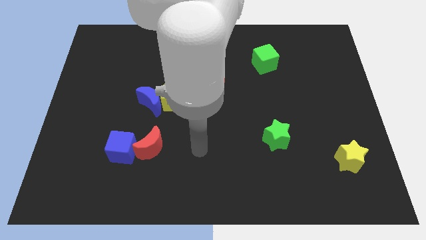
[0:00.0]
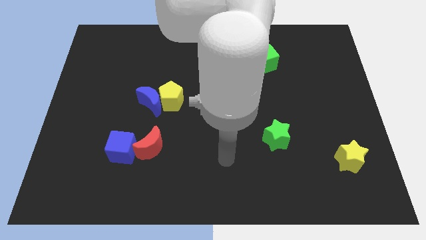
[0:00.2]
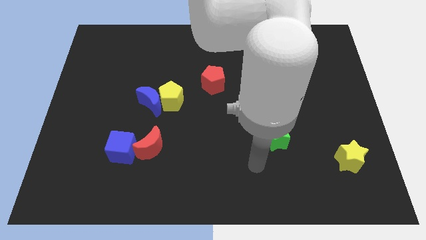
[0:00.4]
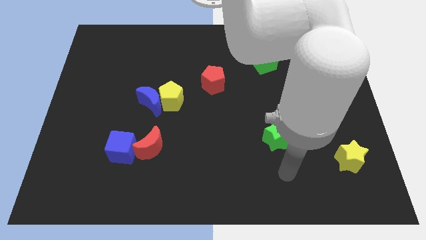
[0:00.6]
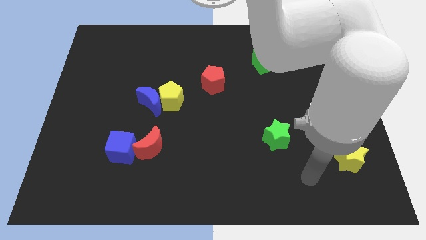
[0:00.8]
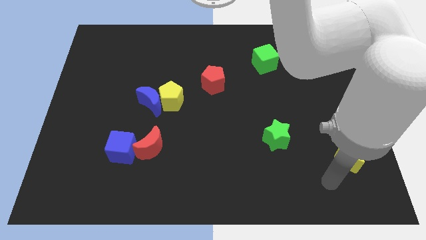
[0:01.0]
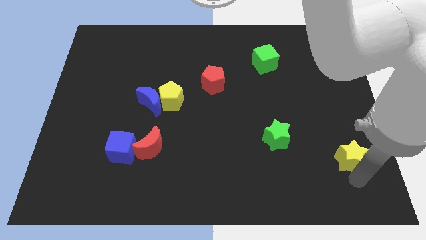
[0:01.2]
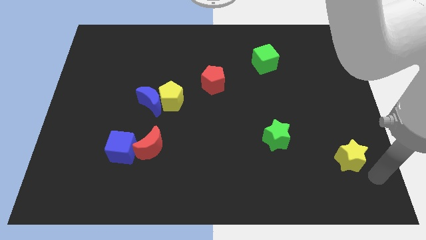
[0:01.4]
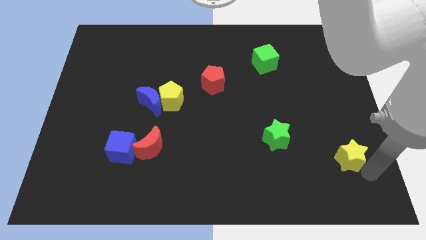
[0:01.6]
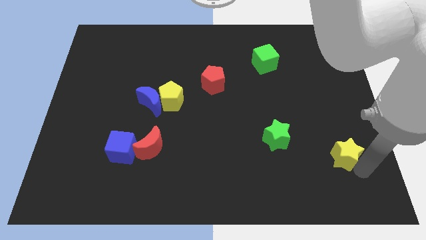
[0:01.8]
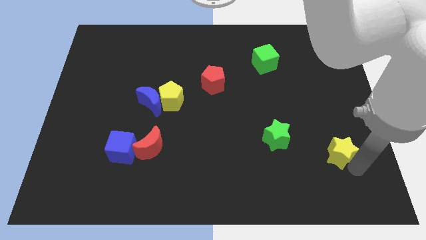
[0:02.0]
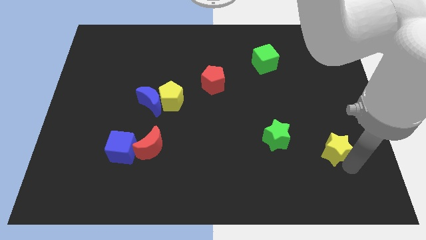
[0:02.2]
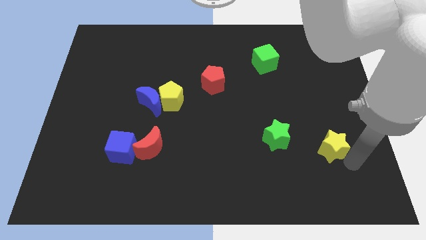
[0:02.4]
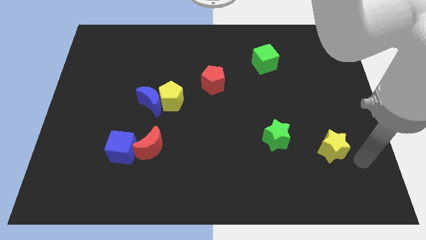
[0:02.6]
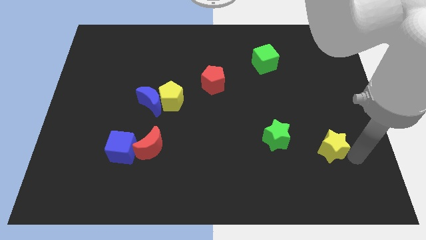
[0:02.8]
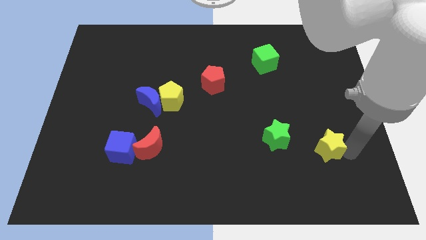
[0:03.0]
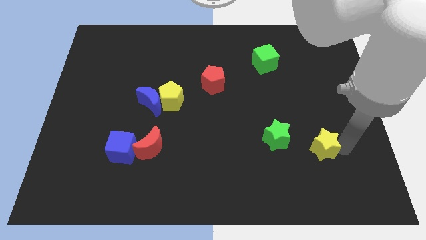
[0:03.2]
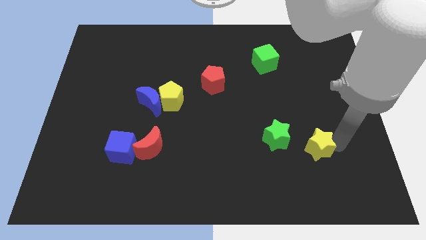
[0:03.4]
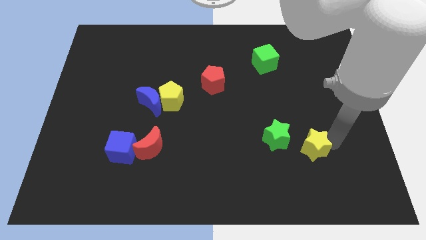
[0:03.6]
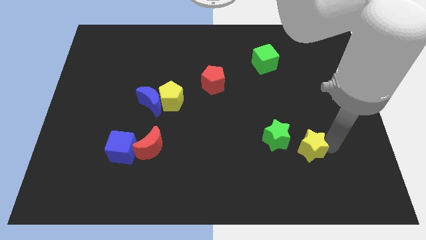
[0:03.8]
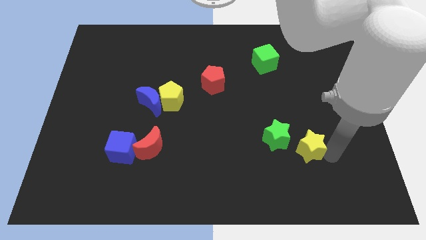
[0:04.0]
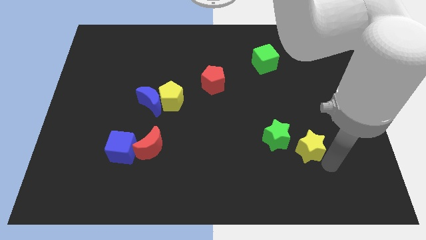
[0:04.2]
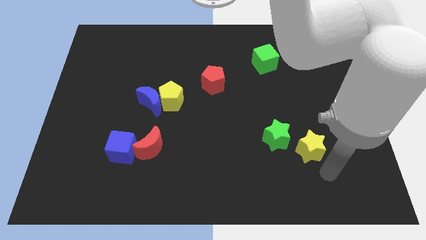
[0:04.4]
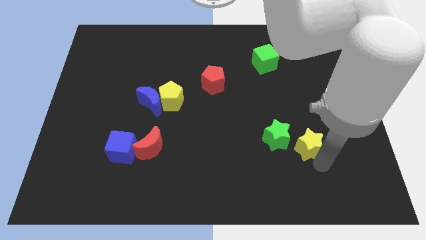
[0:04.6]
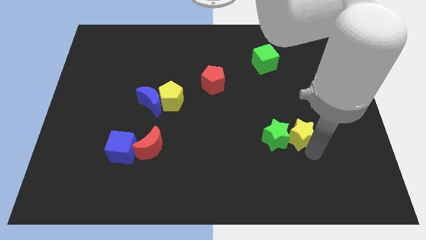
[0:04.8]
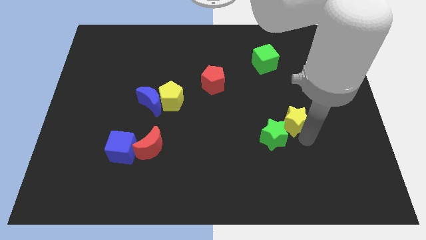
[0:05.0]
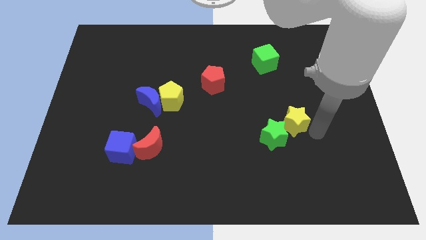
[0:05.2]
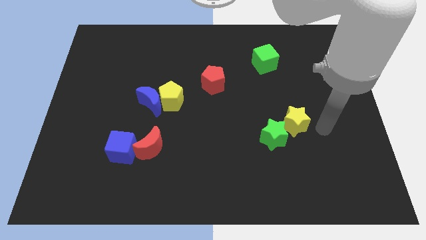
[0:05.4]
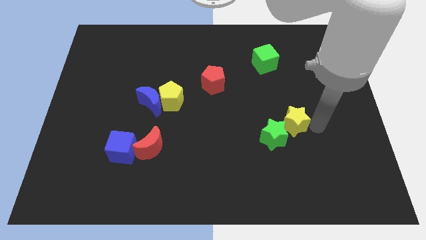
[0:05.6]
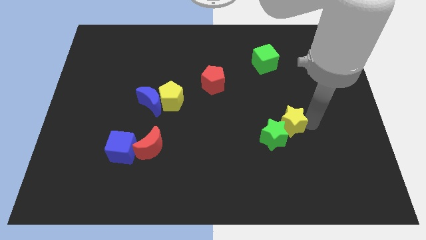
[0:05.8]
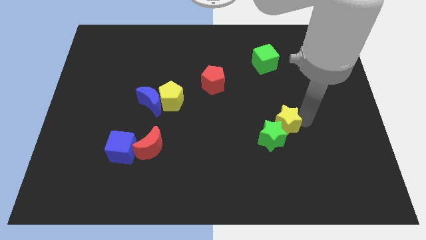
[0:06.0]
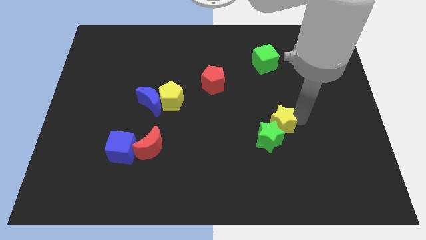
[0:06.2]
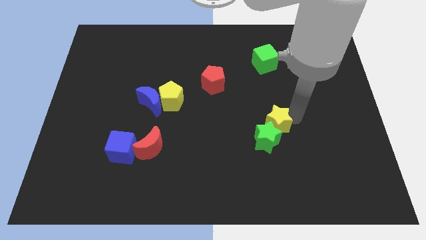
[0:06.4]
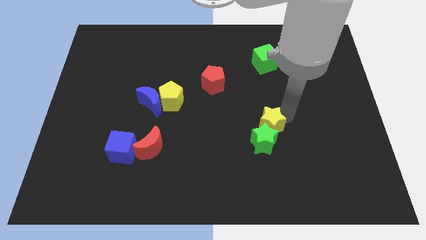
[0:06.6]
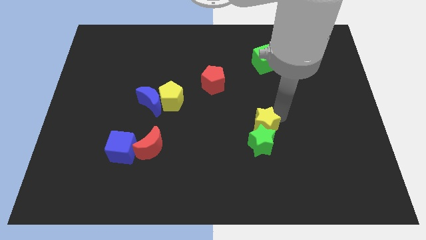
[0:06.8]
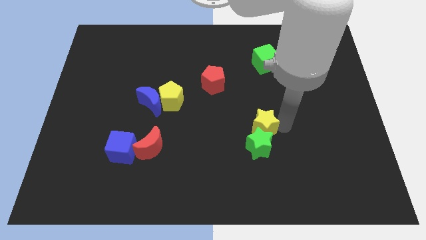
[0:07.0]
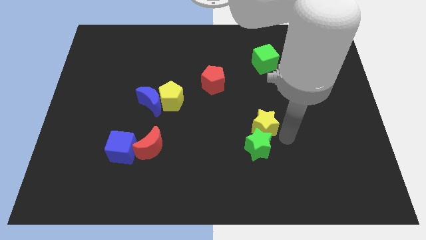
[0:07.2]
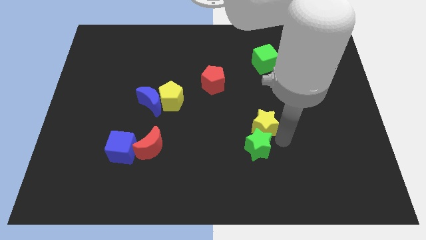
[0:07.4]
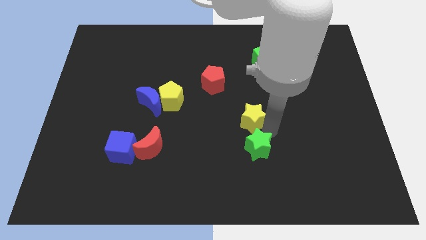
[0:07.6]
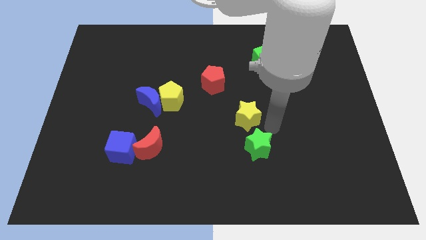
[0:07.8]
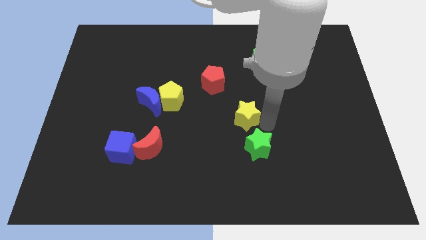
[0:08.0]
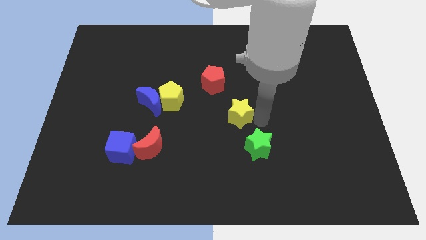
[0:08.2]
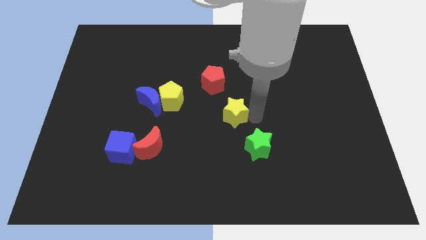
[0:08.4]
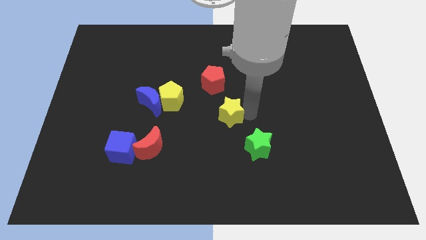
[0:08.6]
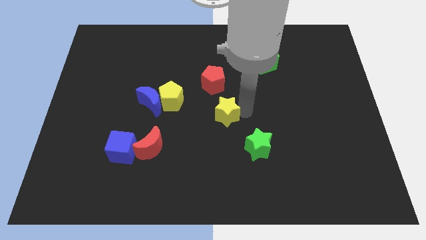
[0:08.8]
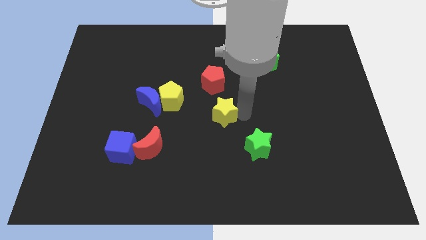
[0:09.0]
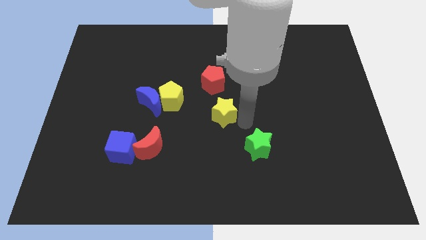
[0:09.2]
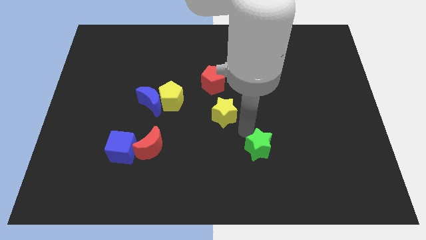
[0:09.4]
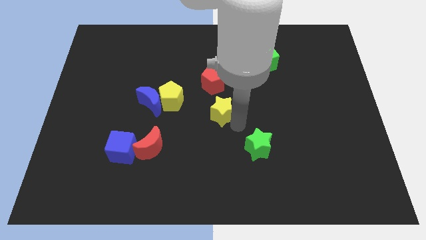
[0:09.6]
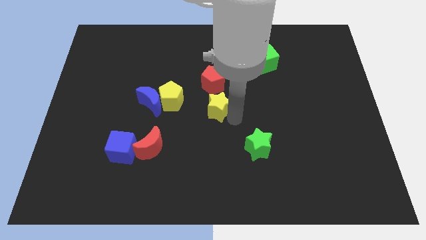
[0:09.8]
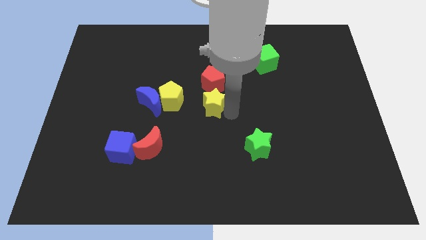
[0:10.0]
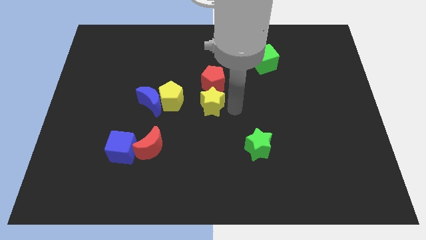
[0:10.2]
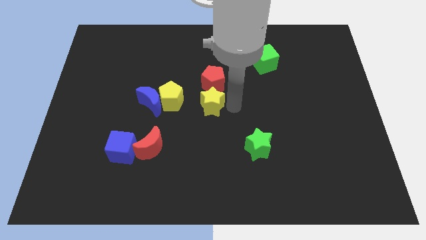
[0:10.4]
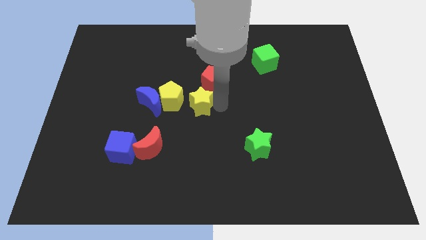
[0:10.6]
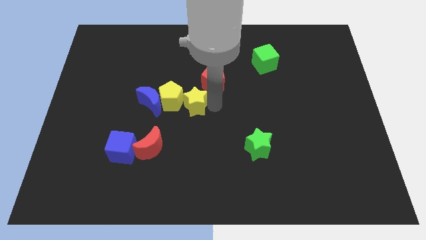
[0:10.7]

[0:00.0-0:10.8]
push the yellow star towards the yellow pentagon

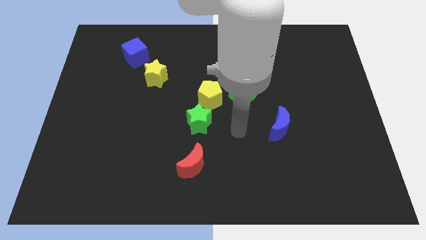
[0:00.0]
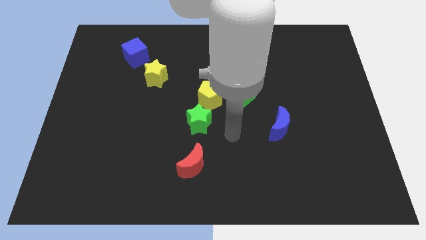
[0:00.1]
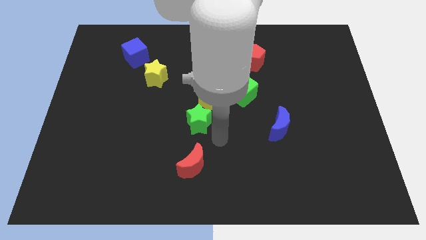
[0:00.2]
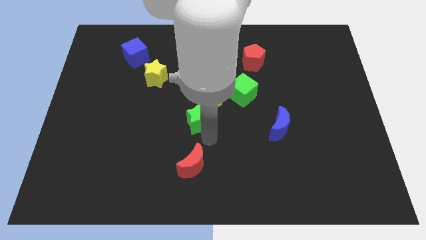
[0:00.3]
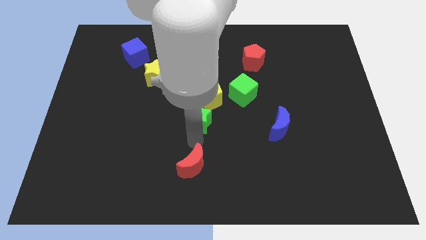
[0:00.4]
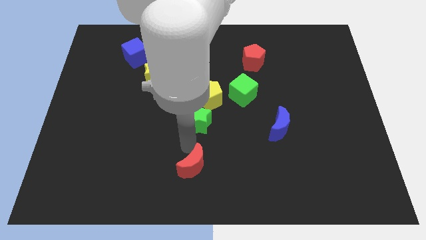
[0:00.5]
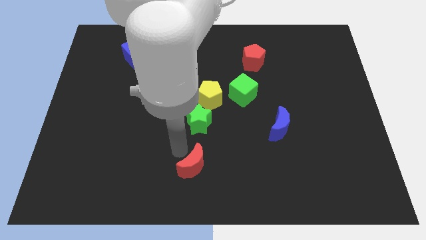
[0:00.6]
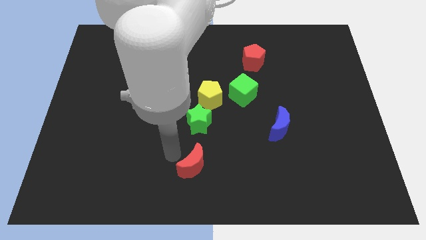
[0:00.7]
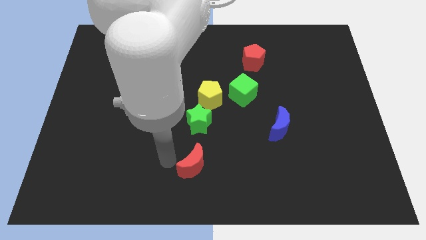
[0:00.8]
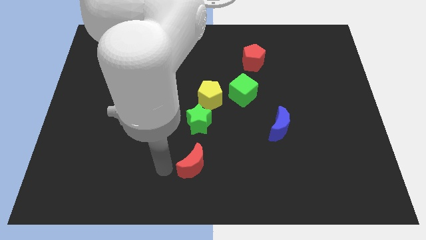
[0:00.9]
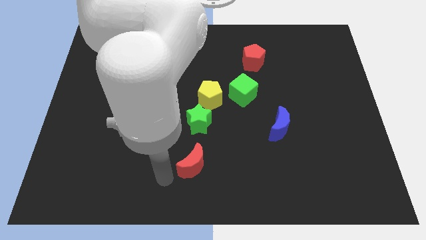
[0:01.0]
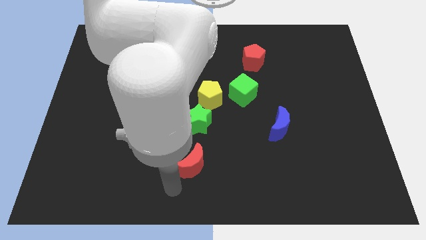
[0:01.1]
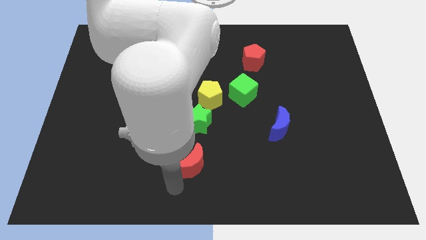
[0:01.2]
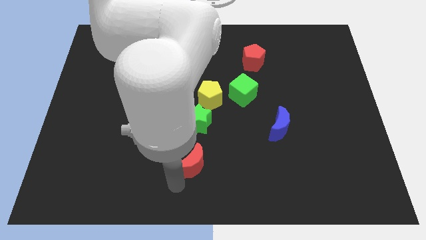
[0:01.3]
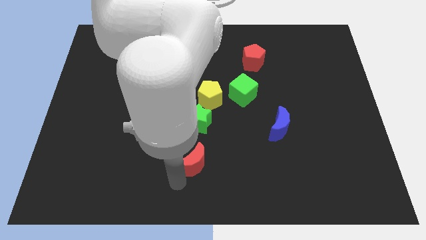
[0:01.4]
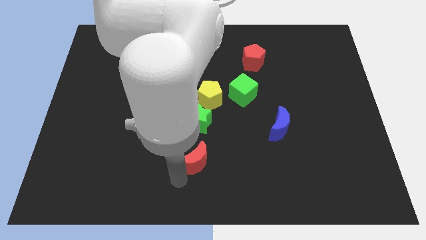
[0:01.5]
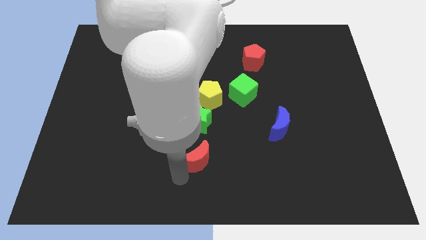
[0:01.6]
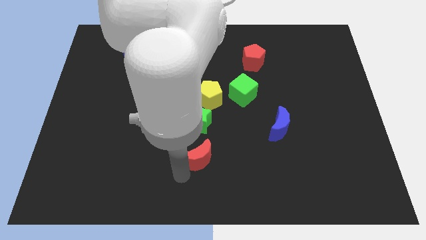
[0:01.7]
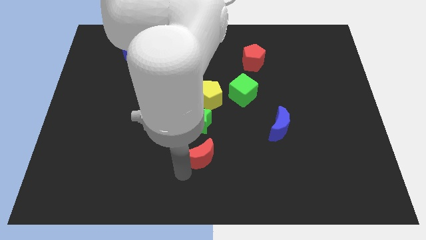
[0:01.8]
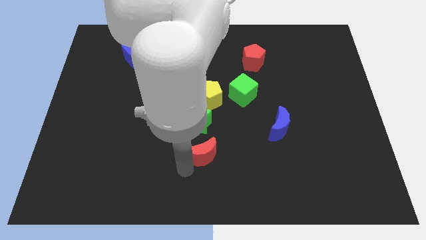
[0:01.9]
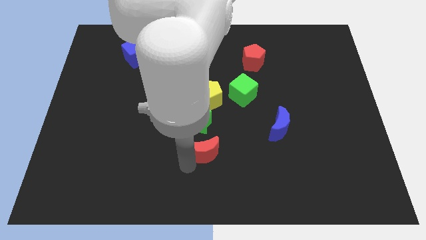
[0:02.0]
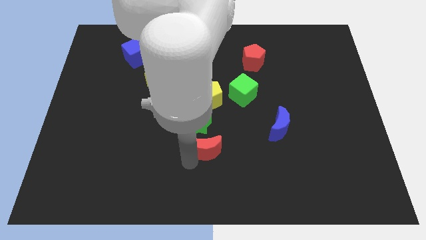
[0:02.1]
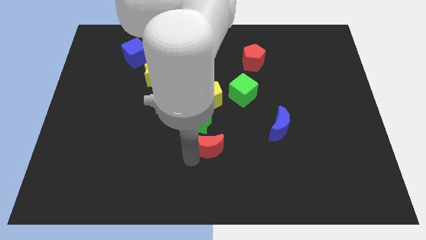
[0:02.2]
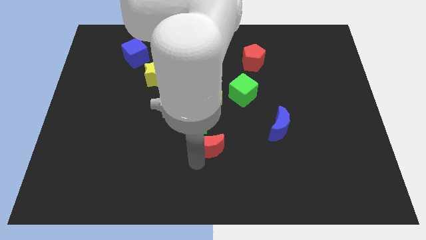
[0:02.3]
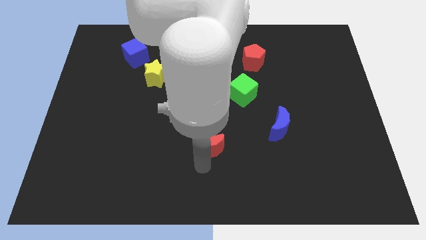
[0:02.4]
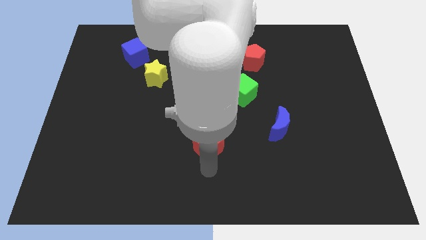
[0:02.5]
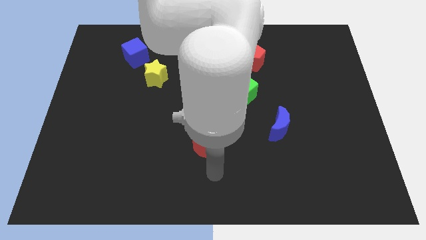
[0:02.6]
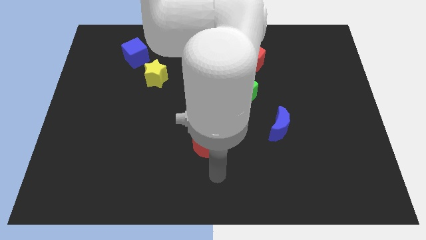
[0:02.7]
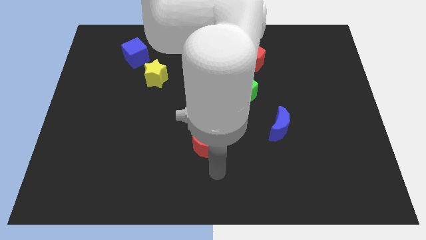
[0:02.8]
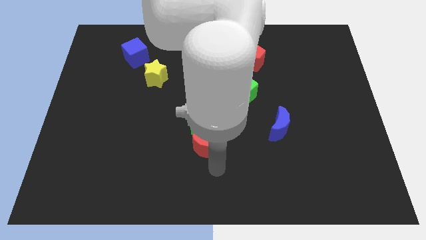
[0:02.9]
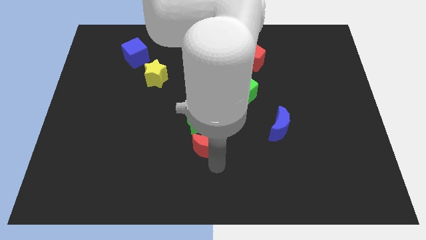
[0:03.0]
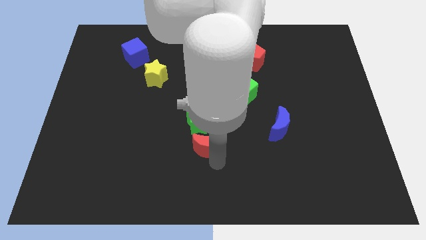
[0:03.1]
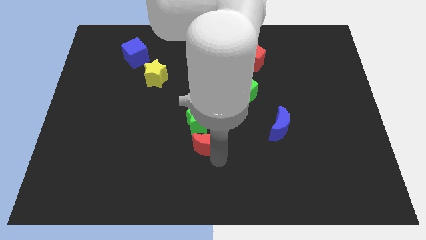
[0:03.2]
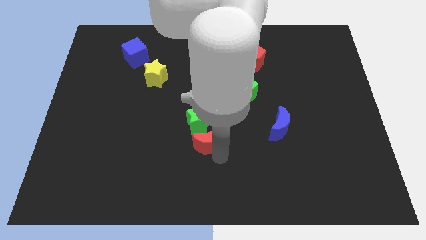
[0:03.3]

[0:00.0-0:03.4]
put the red moon close to the green star
